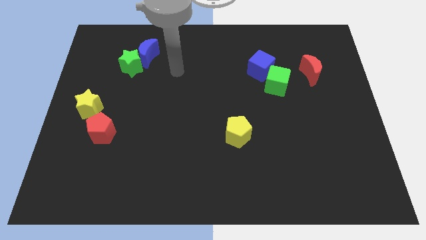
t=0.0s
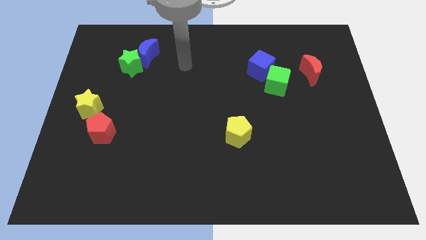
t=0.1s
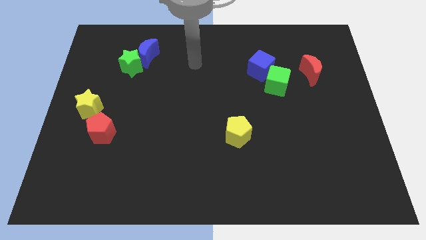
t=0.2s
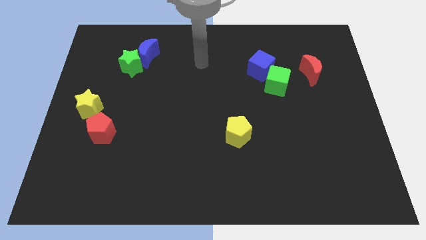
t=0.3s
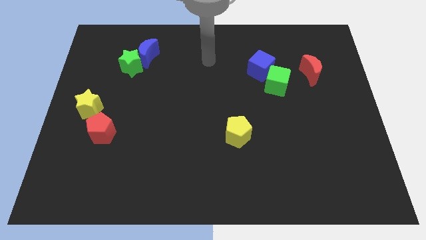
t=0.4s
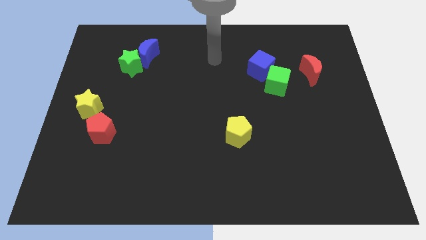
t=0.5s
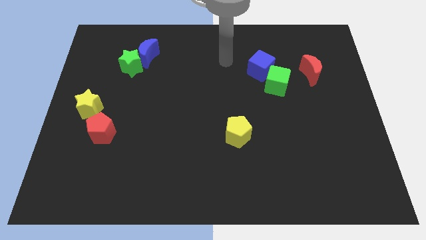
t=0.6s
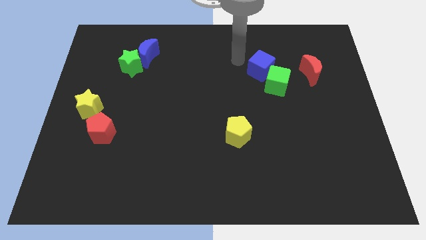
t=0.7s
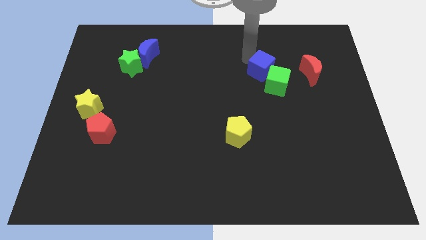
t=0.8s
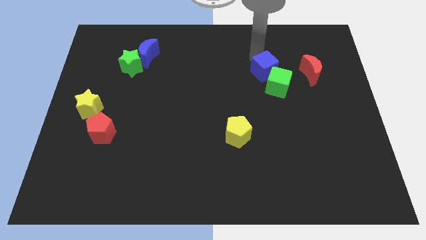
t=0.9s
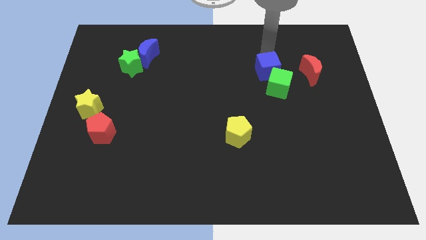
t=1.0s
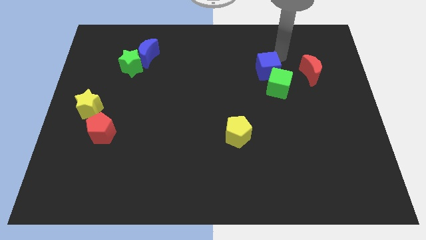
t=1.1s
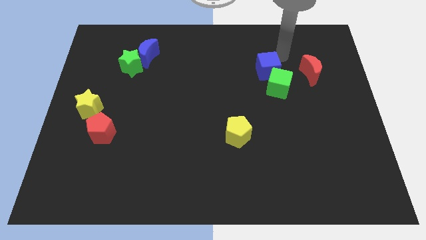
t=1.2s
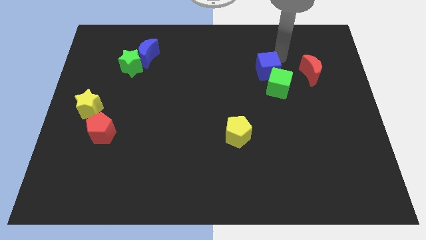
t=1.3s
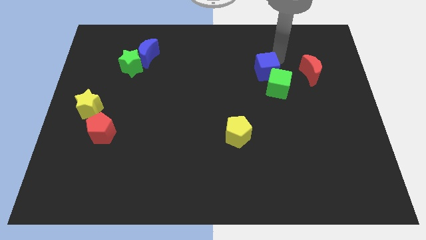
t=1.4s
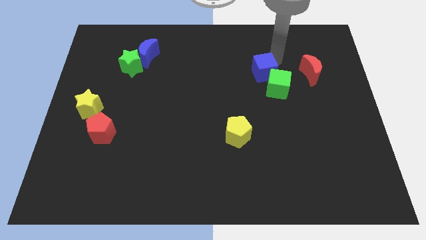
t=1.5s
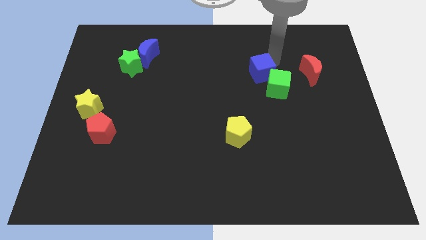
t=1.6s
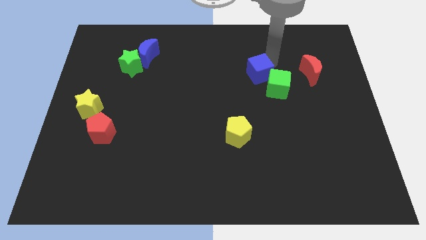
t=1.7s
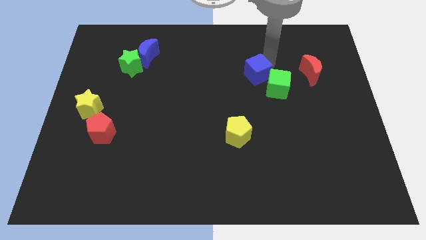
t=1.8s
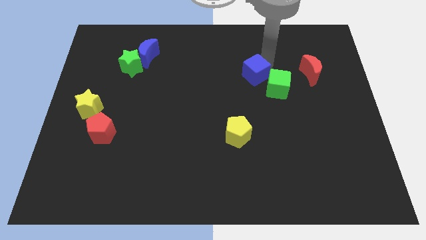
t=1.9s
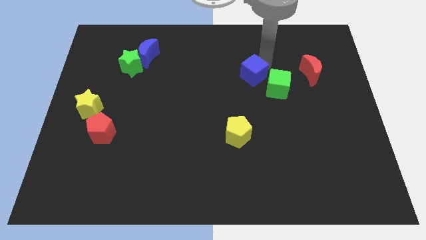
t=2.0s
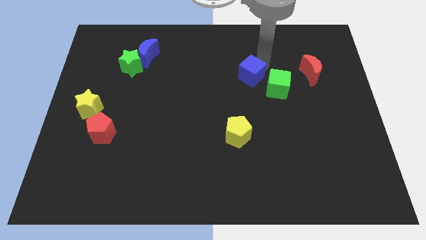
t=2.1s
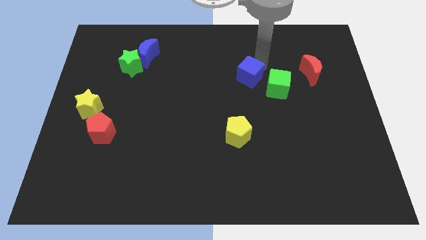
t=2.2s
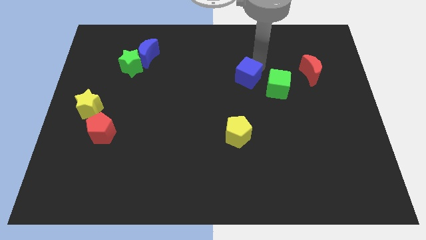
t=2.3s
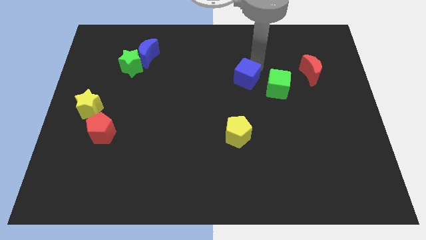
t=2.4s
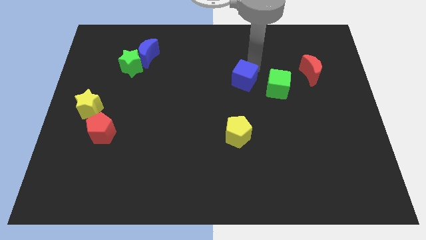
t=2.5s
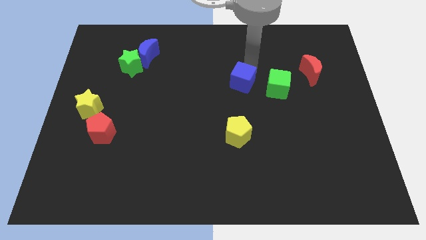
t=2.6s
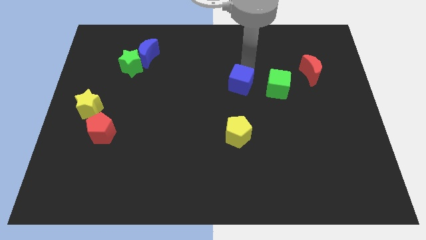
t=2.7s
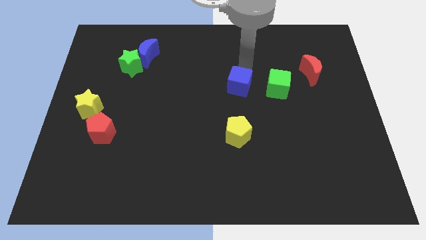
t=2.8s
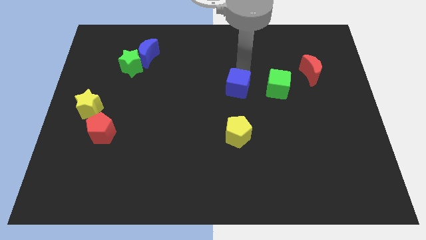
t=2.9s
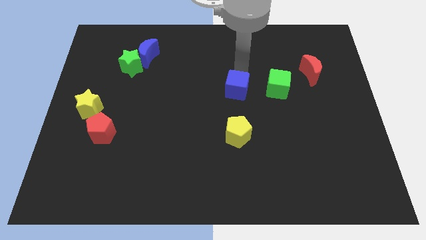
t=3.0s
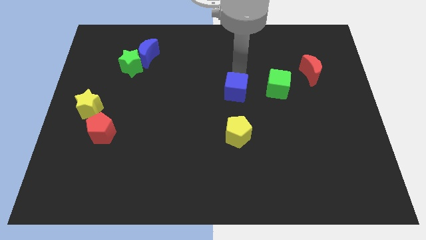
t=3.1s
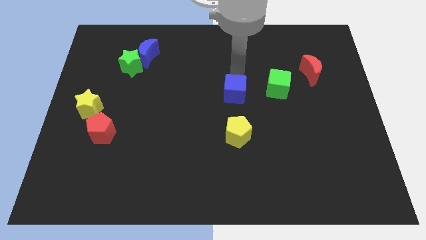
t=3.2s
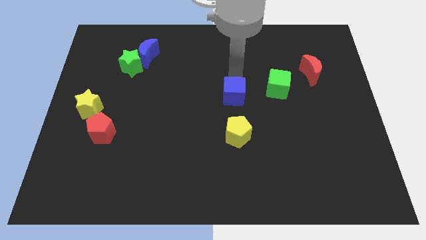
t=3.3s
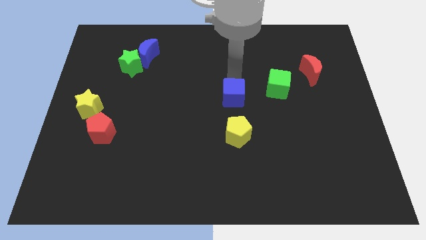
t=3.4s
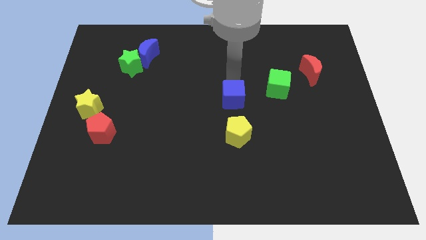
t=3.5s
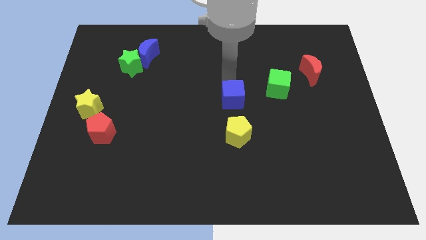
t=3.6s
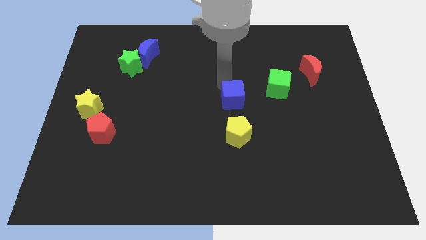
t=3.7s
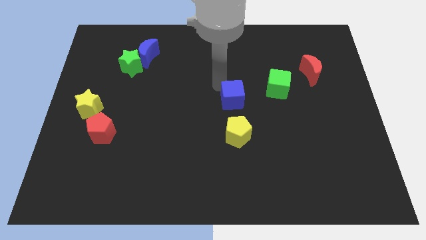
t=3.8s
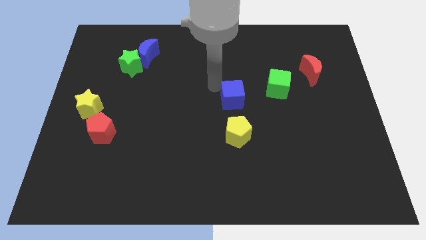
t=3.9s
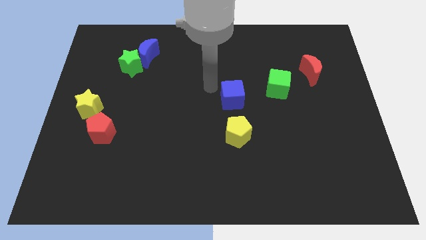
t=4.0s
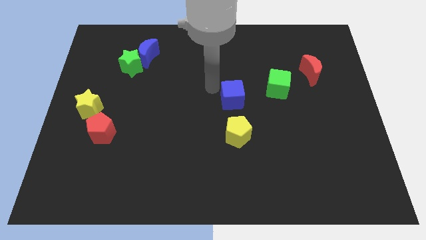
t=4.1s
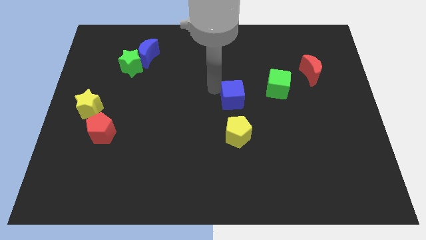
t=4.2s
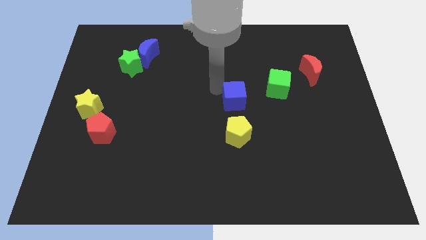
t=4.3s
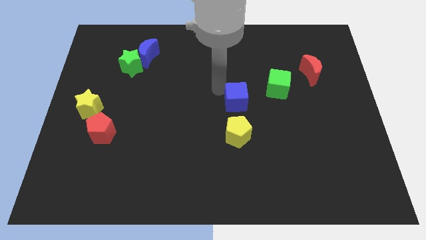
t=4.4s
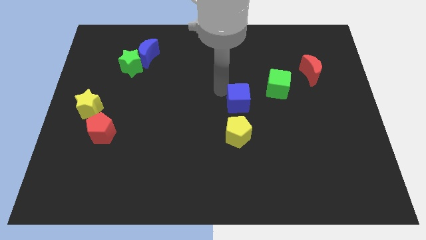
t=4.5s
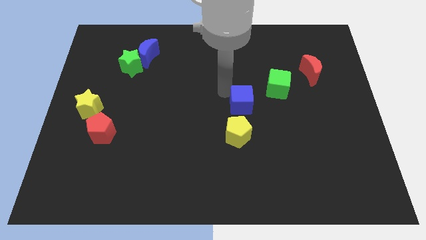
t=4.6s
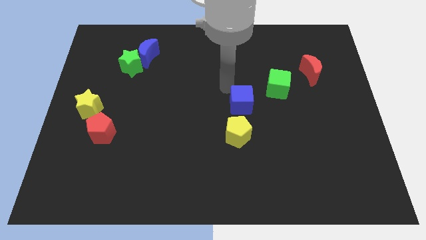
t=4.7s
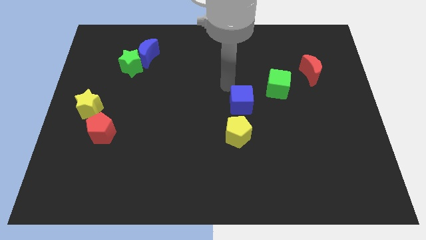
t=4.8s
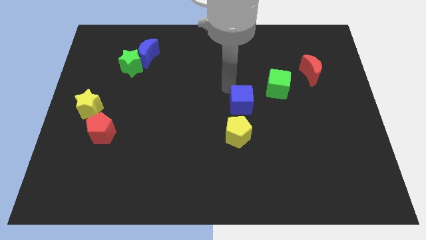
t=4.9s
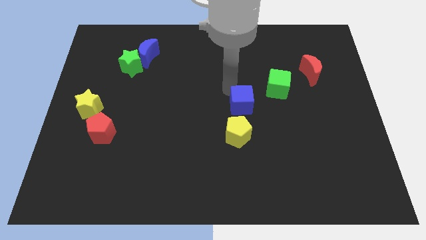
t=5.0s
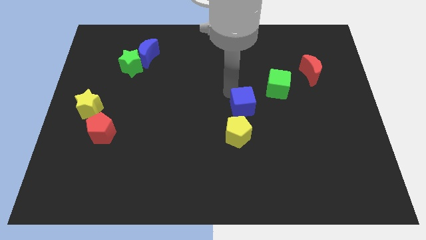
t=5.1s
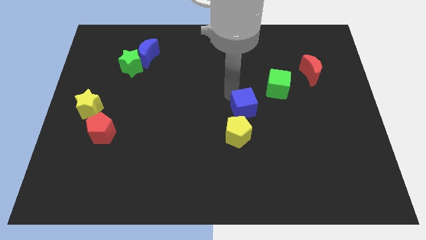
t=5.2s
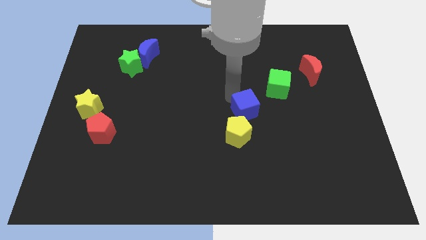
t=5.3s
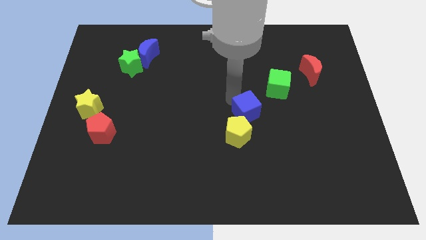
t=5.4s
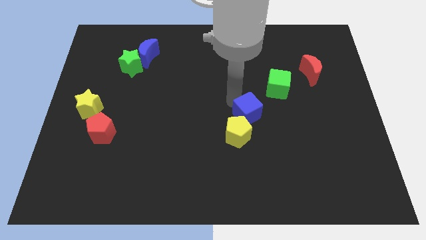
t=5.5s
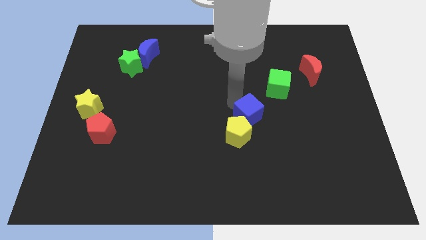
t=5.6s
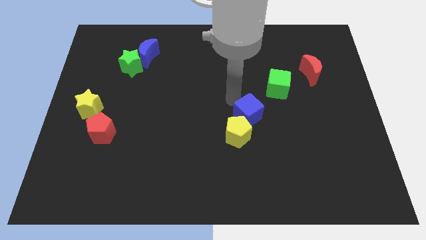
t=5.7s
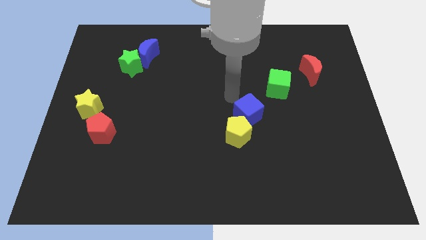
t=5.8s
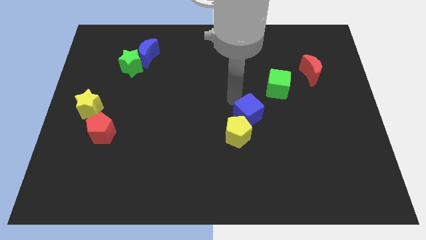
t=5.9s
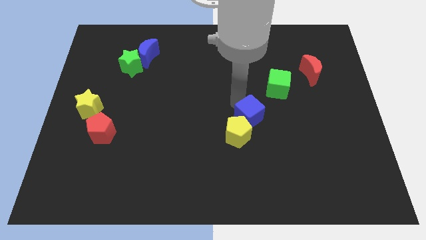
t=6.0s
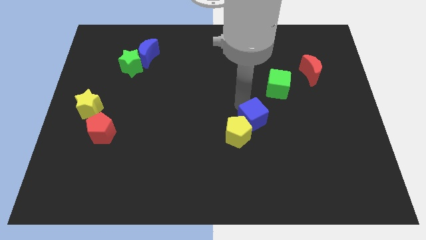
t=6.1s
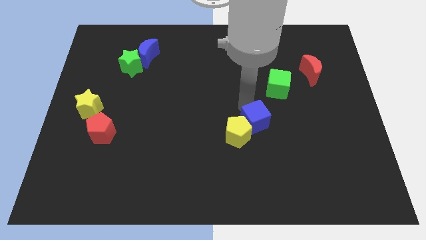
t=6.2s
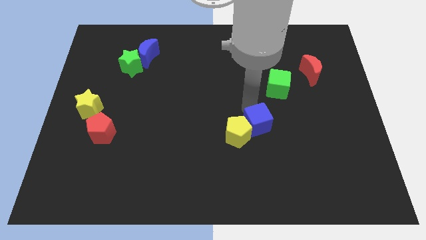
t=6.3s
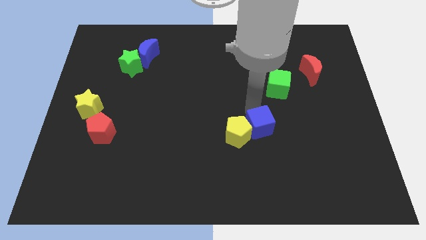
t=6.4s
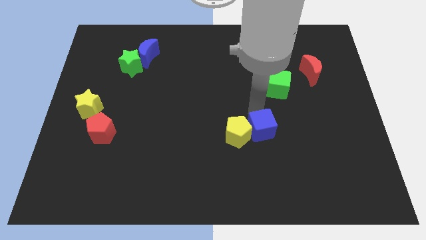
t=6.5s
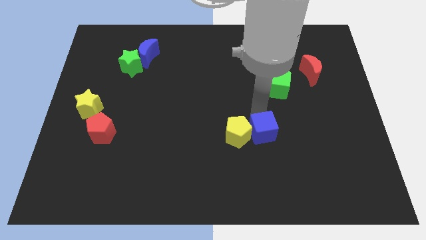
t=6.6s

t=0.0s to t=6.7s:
move the blue cube to the bottom right side of the yellow pentagon

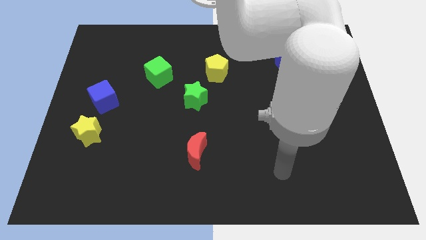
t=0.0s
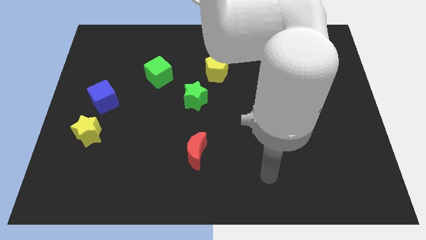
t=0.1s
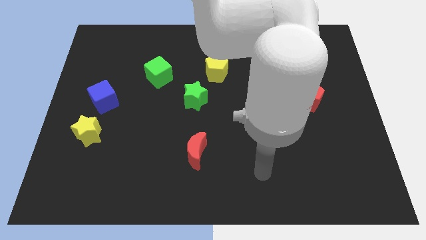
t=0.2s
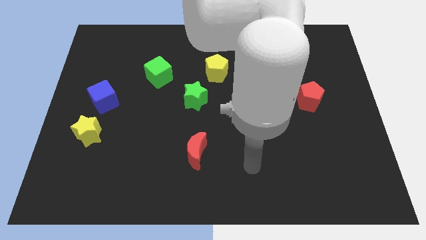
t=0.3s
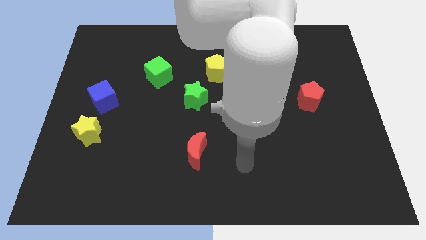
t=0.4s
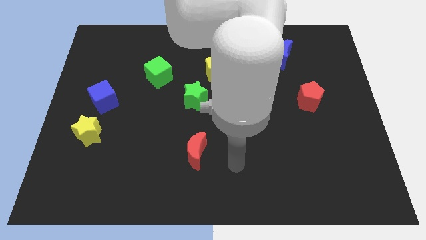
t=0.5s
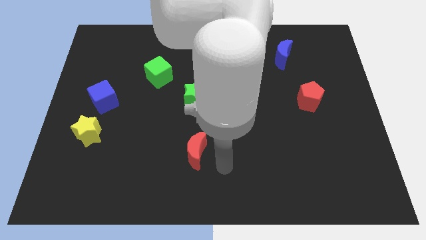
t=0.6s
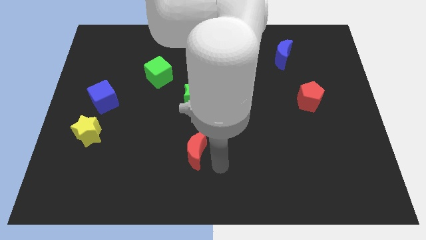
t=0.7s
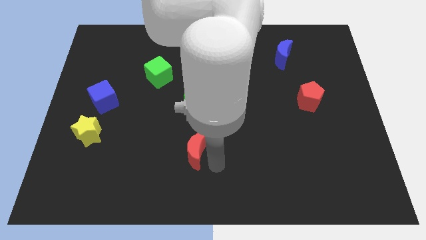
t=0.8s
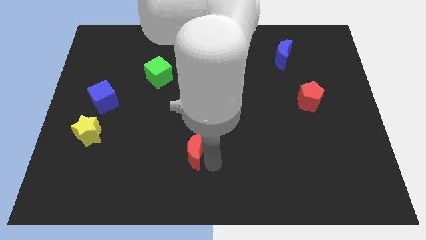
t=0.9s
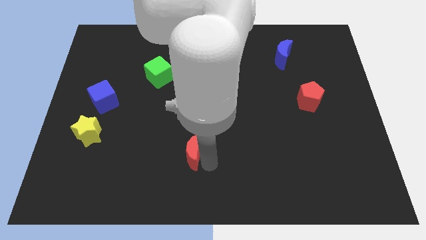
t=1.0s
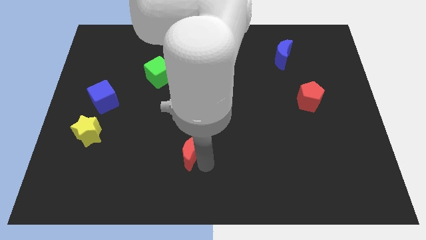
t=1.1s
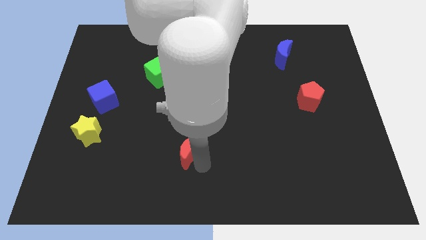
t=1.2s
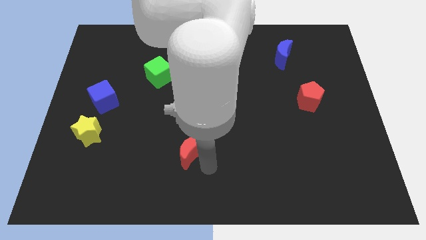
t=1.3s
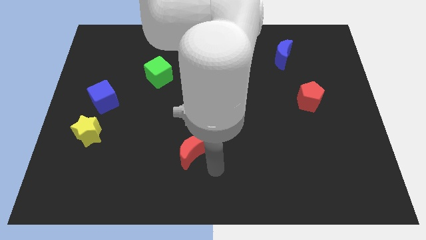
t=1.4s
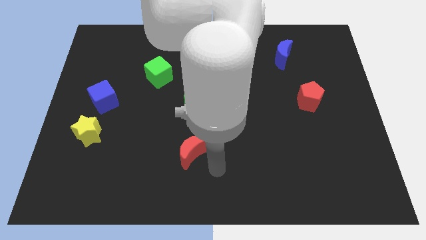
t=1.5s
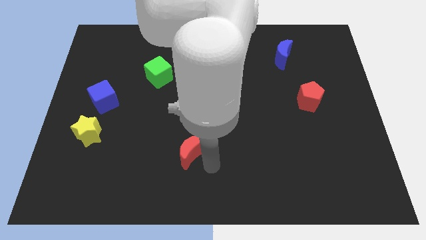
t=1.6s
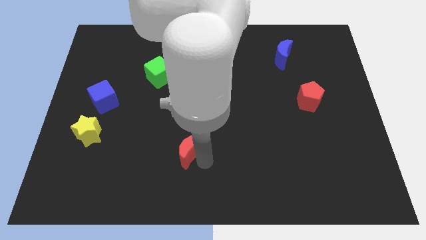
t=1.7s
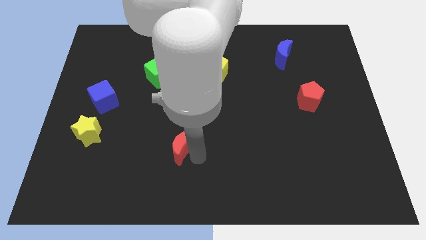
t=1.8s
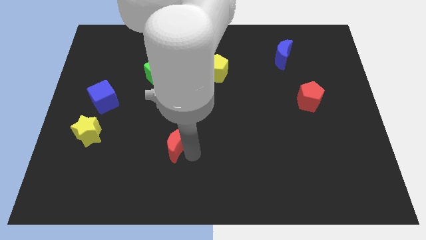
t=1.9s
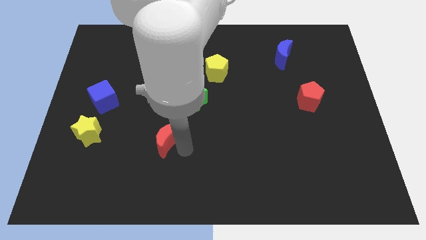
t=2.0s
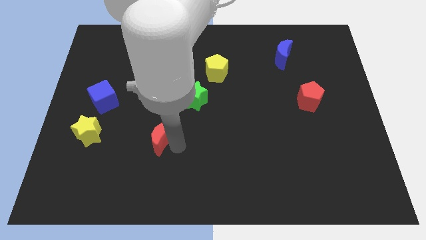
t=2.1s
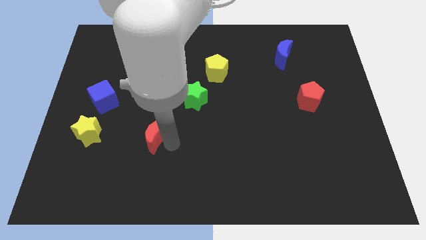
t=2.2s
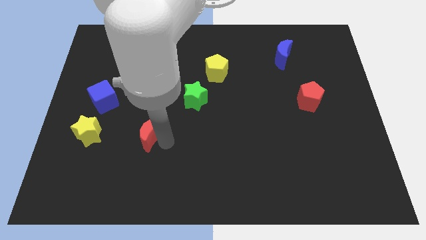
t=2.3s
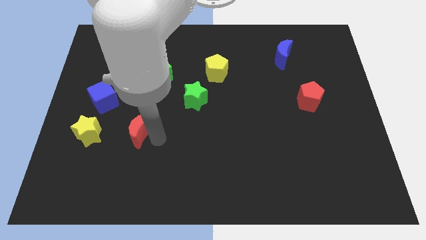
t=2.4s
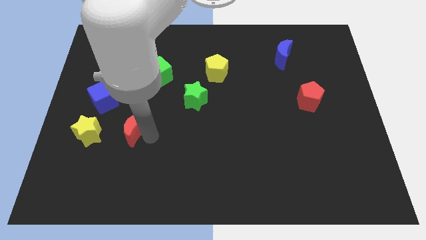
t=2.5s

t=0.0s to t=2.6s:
slide the red moon diagonally down and to the right of the blue cube
